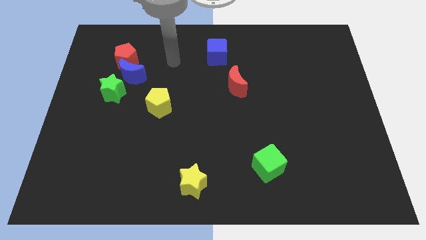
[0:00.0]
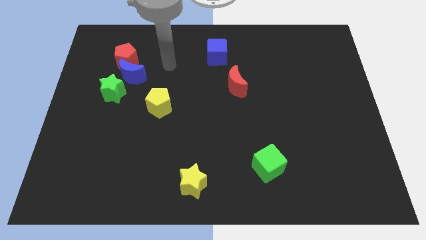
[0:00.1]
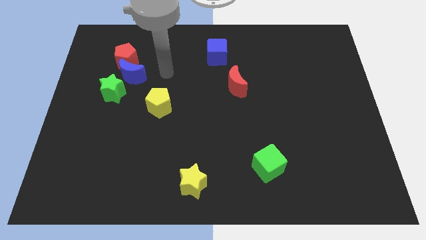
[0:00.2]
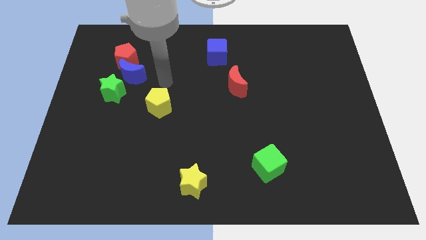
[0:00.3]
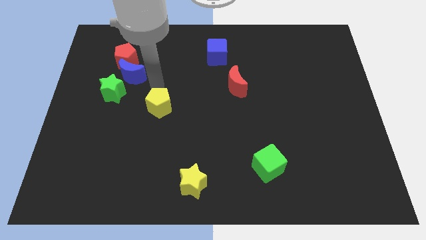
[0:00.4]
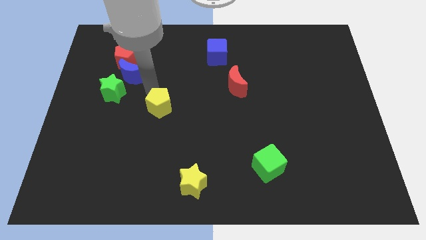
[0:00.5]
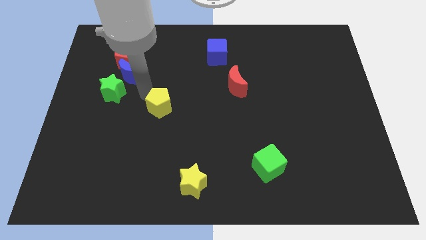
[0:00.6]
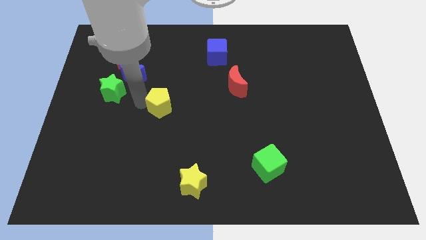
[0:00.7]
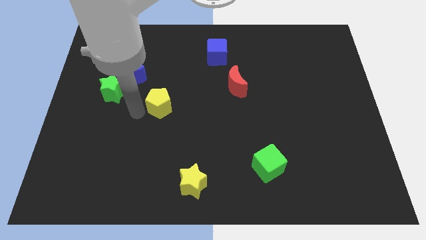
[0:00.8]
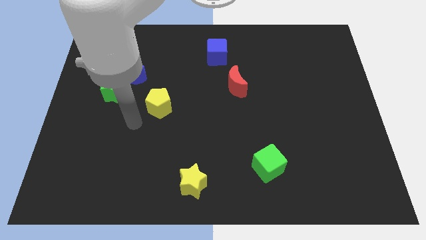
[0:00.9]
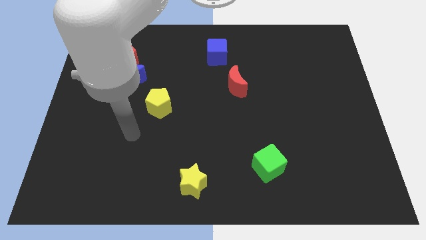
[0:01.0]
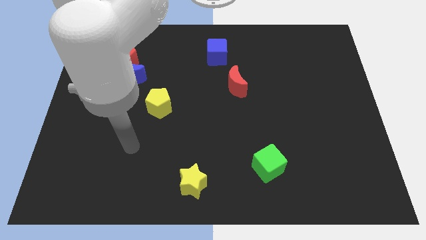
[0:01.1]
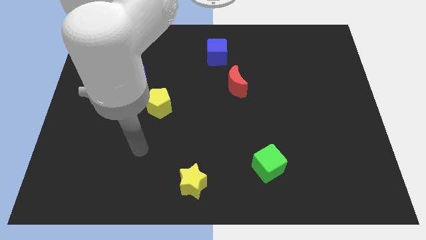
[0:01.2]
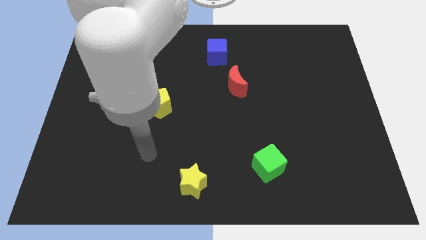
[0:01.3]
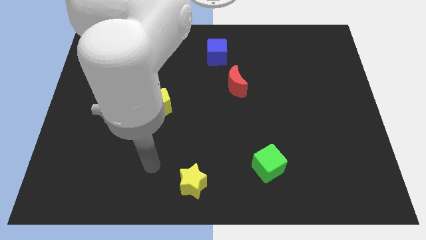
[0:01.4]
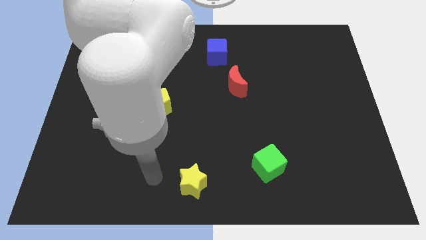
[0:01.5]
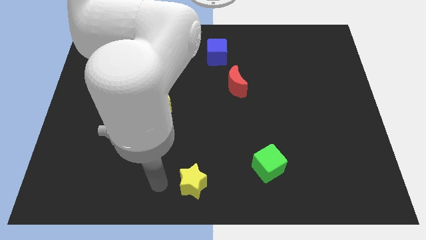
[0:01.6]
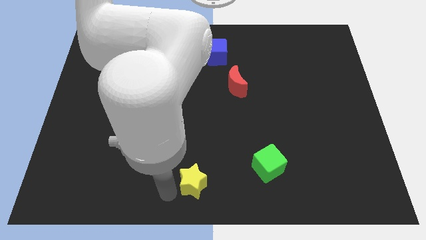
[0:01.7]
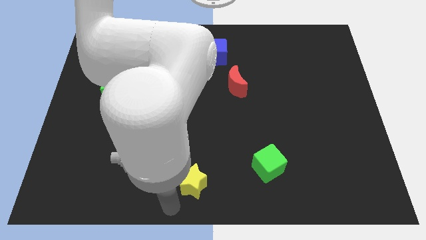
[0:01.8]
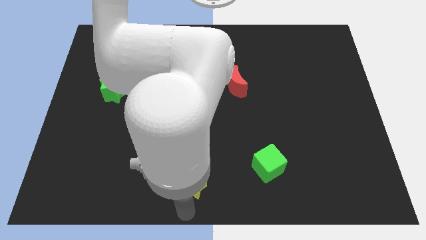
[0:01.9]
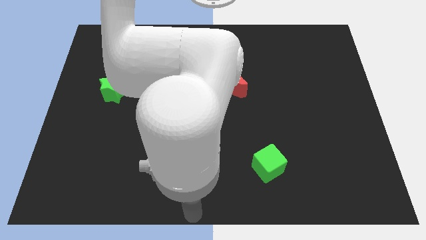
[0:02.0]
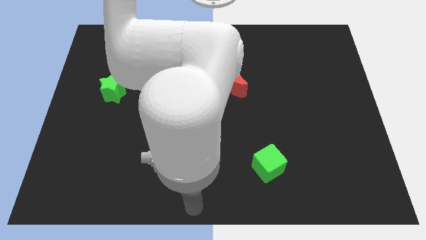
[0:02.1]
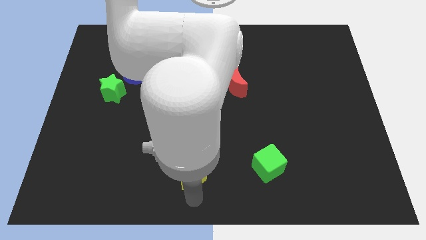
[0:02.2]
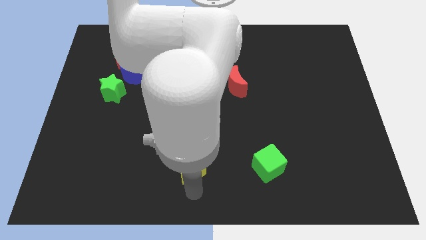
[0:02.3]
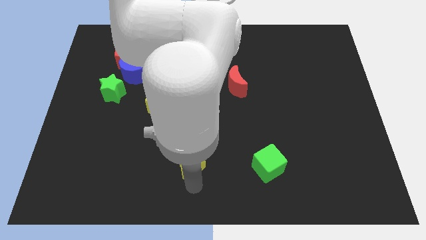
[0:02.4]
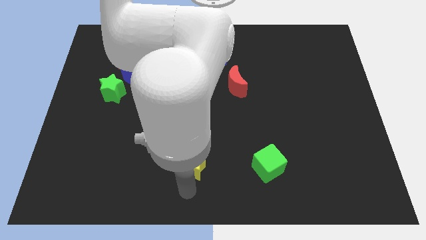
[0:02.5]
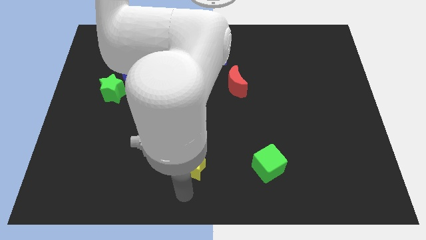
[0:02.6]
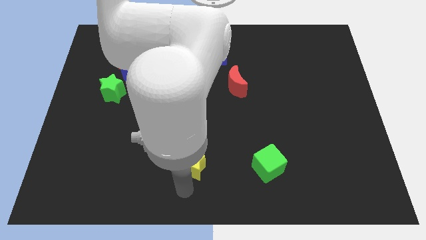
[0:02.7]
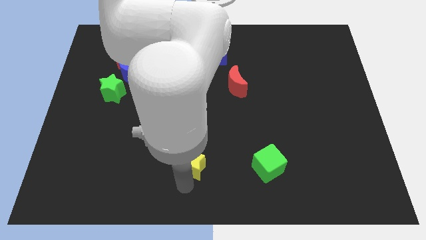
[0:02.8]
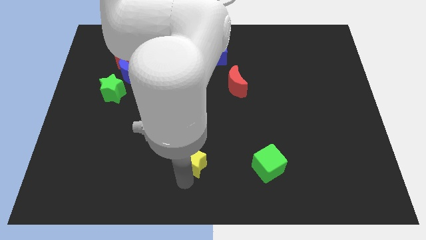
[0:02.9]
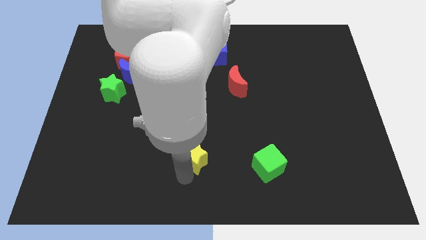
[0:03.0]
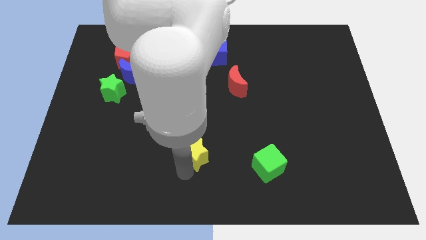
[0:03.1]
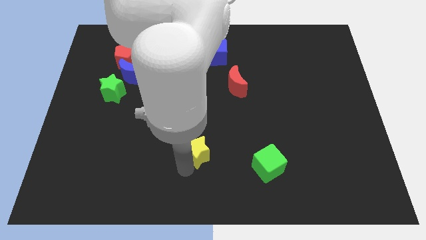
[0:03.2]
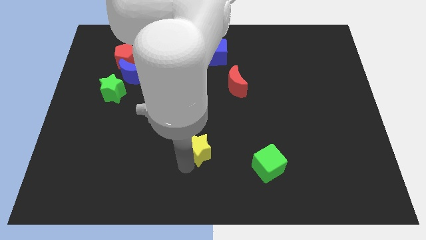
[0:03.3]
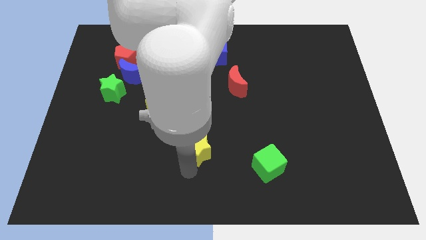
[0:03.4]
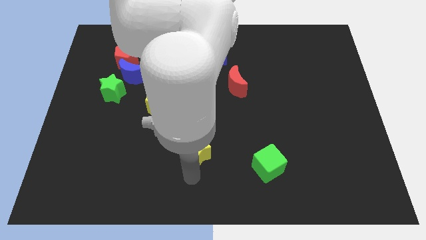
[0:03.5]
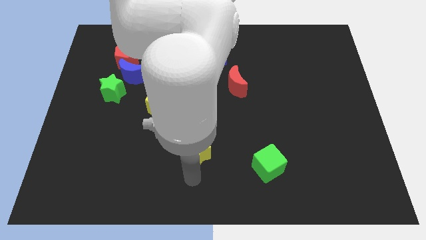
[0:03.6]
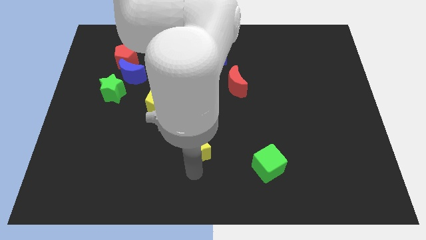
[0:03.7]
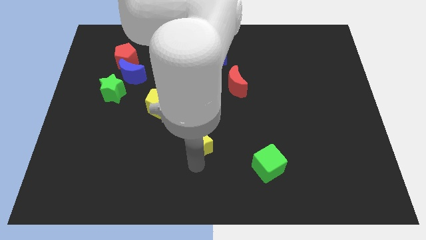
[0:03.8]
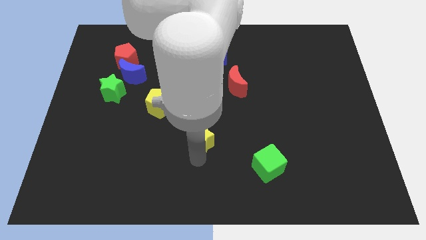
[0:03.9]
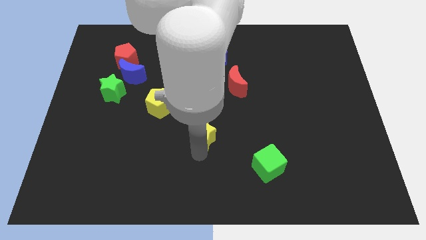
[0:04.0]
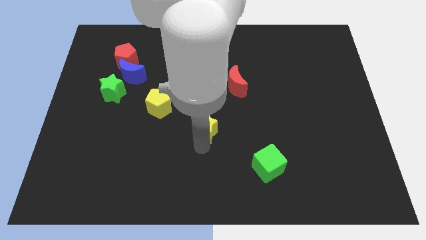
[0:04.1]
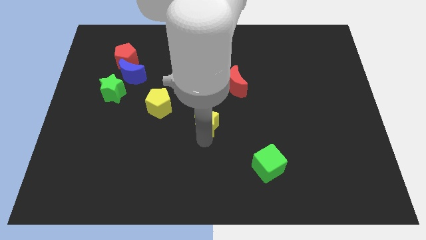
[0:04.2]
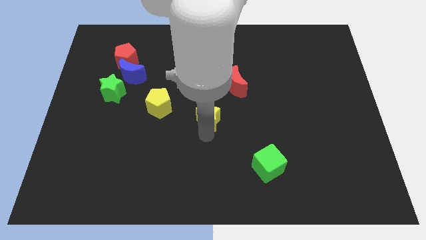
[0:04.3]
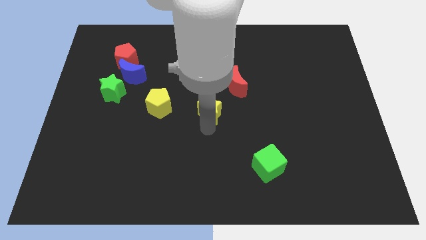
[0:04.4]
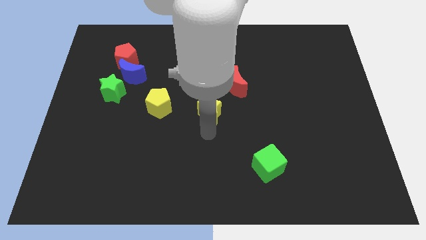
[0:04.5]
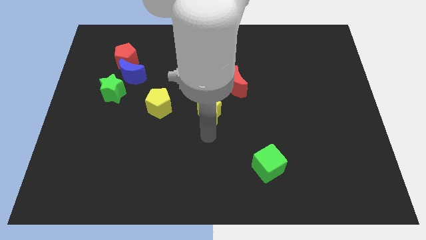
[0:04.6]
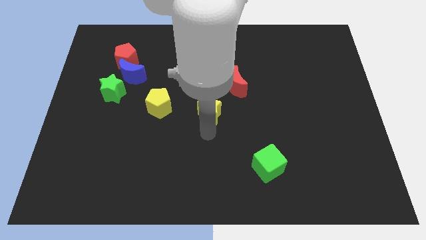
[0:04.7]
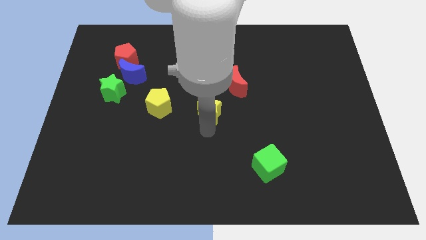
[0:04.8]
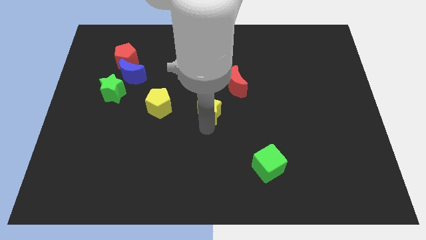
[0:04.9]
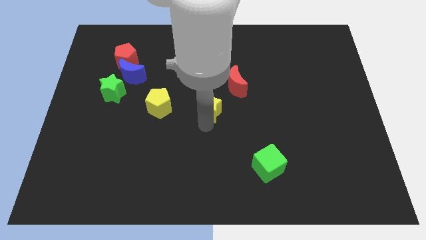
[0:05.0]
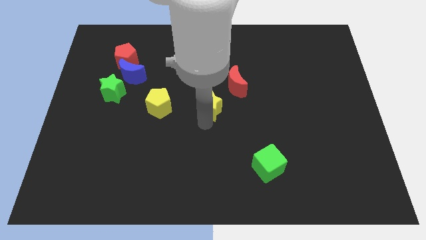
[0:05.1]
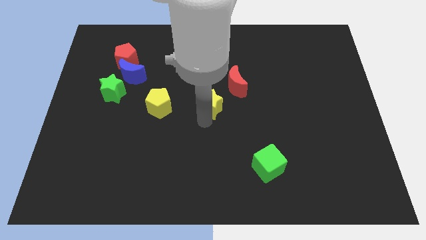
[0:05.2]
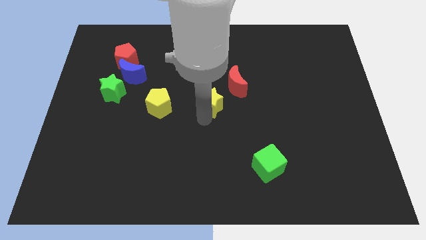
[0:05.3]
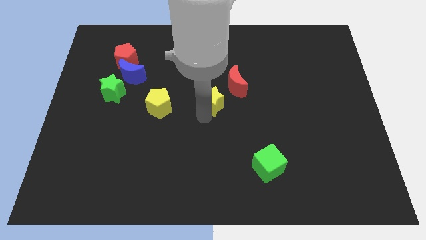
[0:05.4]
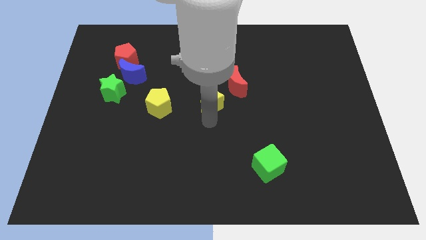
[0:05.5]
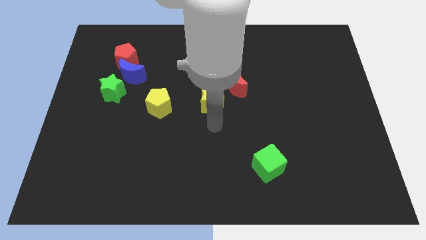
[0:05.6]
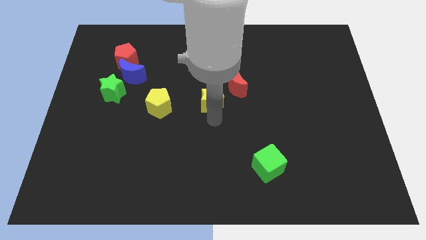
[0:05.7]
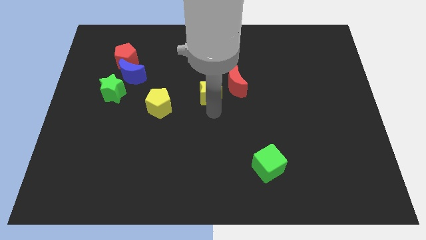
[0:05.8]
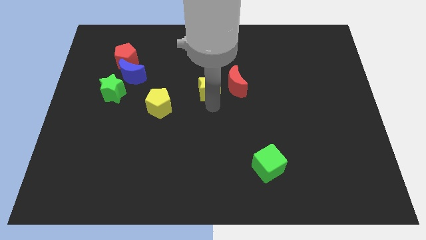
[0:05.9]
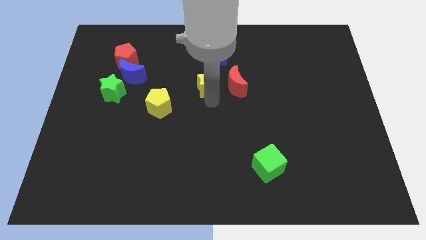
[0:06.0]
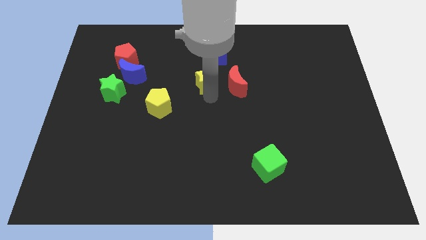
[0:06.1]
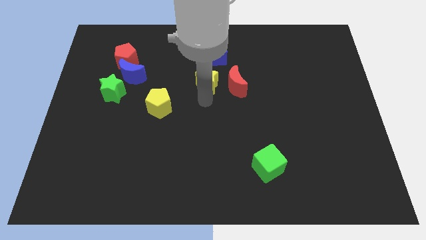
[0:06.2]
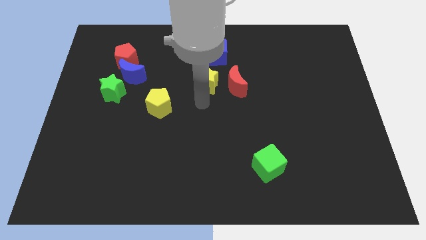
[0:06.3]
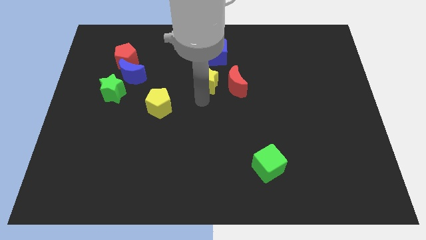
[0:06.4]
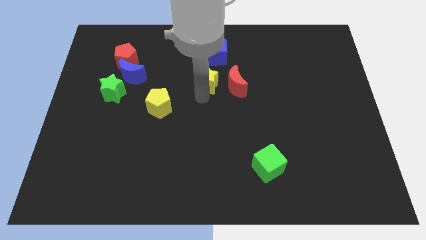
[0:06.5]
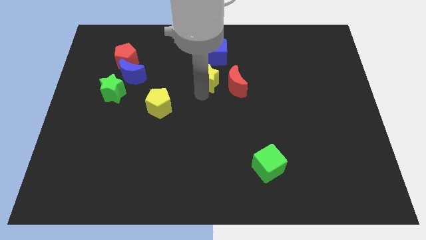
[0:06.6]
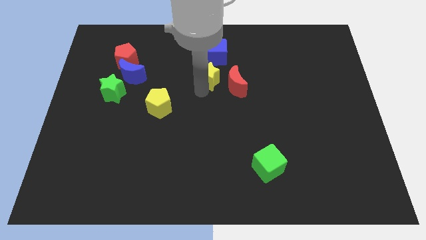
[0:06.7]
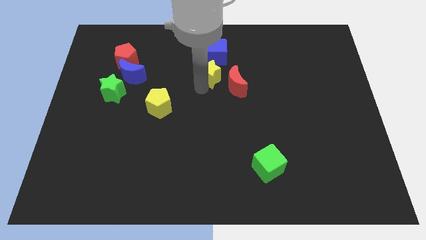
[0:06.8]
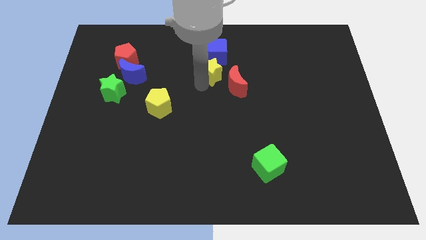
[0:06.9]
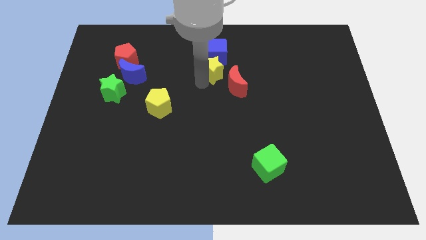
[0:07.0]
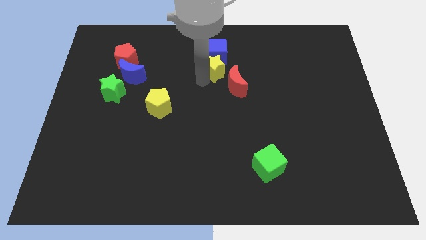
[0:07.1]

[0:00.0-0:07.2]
slide the yellow star to the blue cube

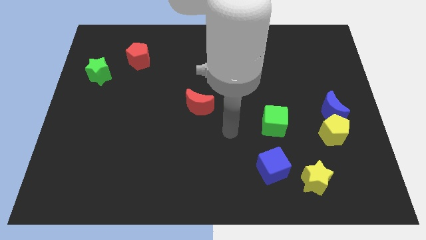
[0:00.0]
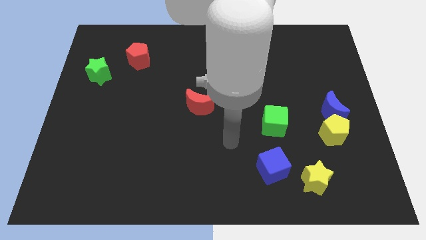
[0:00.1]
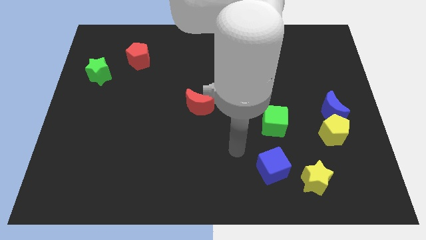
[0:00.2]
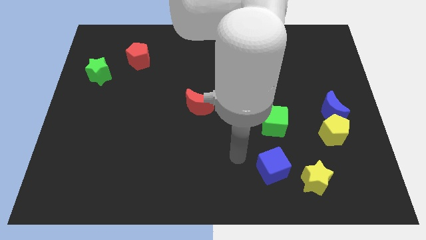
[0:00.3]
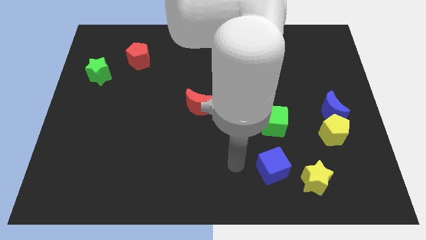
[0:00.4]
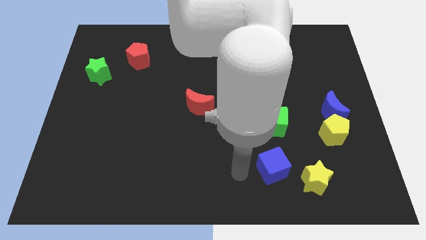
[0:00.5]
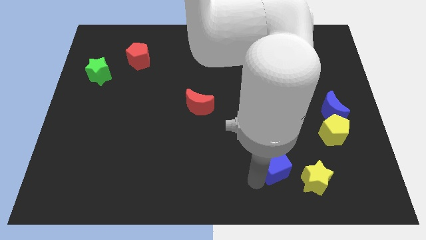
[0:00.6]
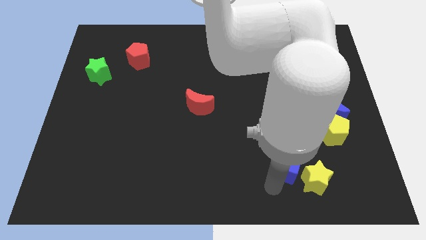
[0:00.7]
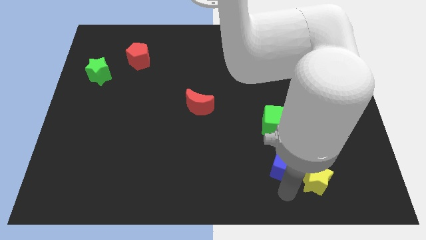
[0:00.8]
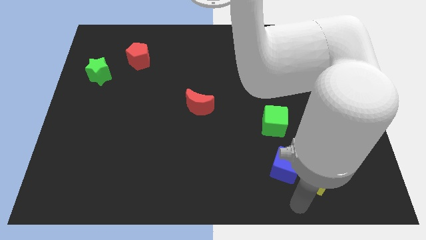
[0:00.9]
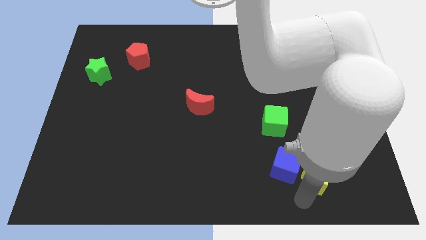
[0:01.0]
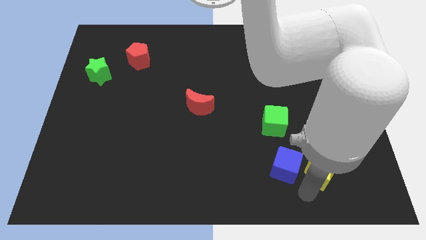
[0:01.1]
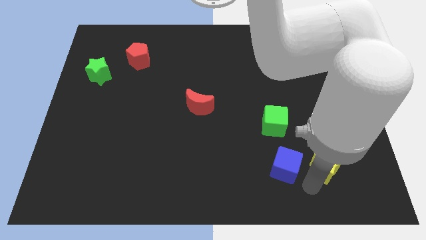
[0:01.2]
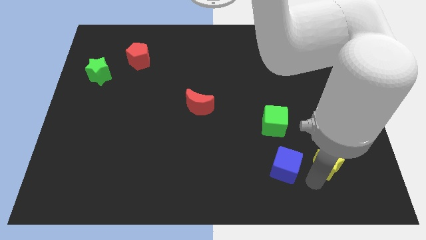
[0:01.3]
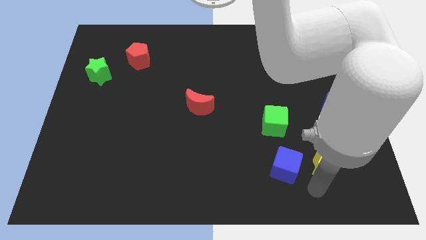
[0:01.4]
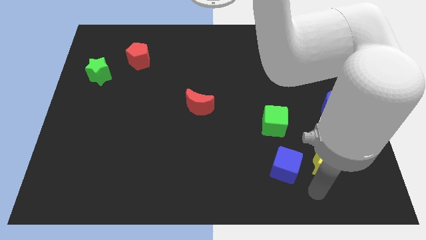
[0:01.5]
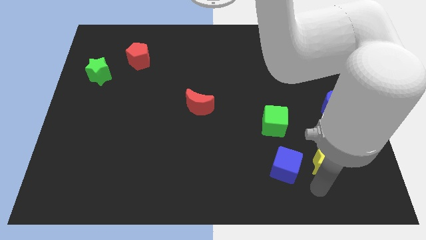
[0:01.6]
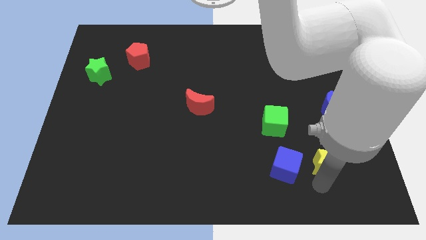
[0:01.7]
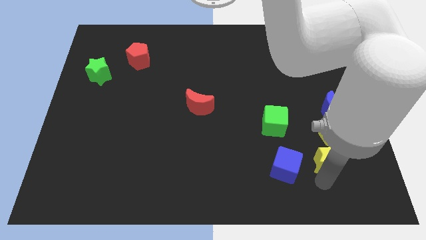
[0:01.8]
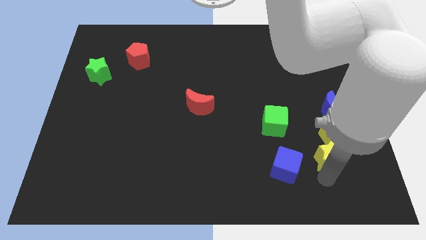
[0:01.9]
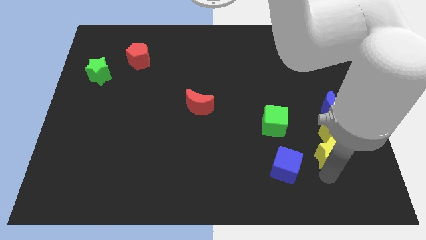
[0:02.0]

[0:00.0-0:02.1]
put the yellow star next to the yellow pentagon
